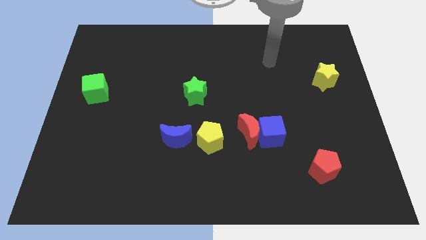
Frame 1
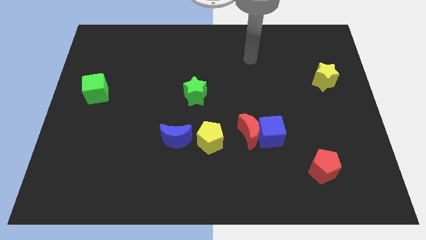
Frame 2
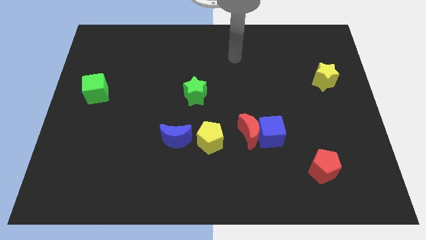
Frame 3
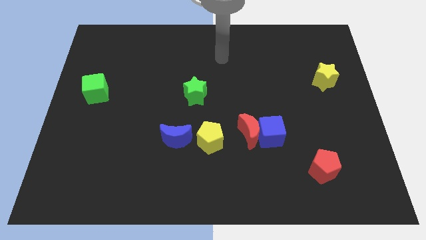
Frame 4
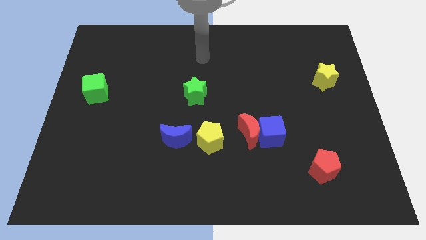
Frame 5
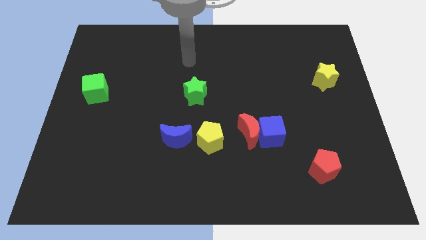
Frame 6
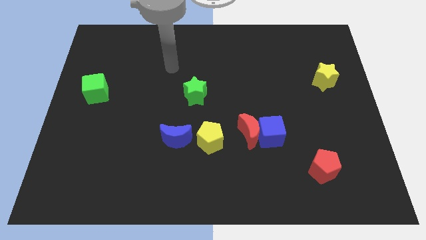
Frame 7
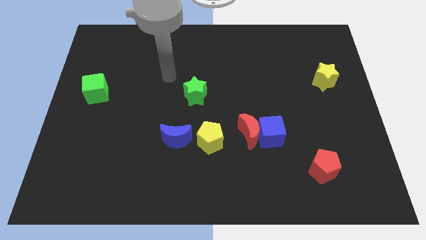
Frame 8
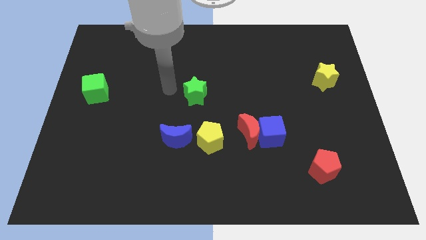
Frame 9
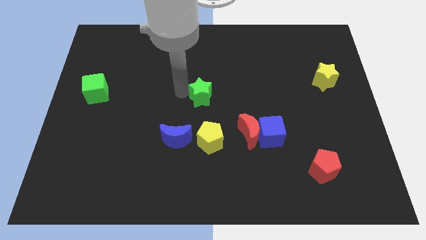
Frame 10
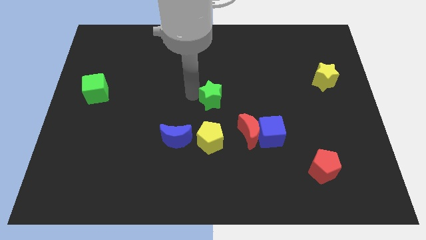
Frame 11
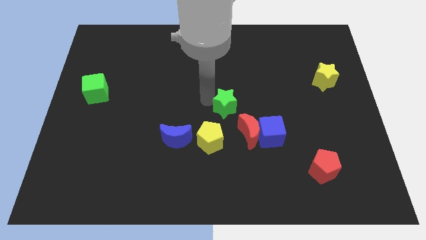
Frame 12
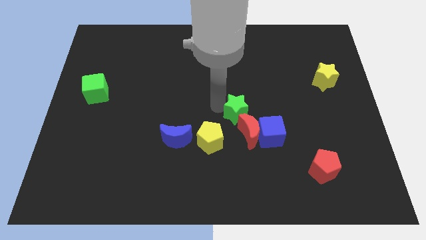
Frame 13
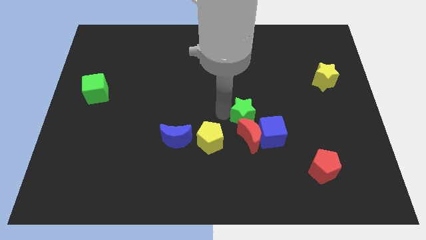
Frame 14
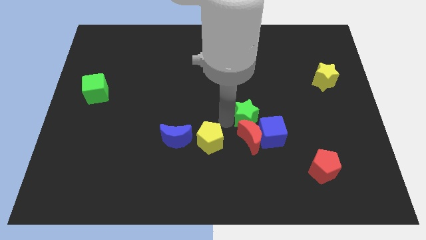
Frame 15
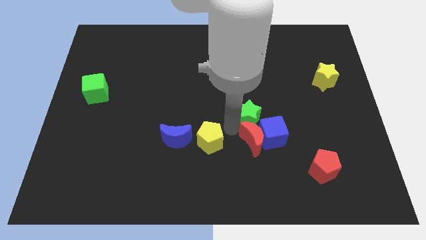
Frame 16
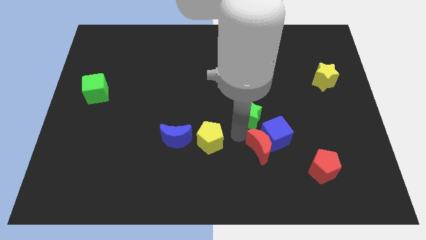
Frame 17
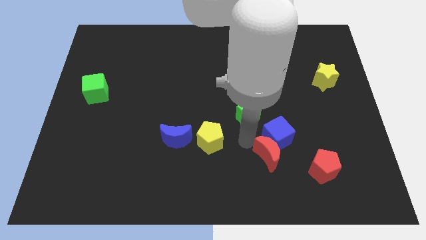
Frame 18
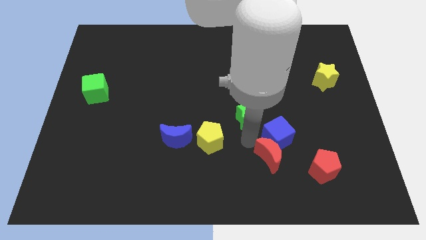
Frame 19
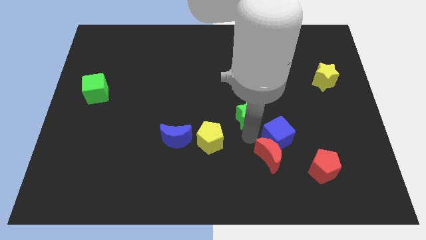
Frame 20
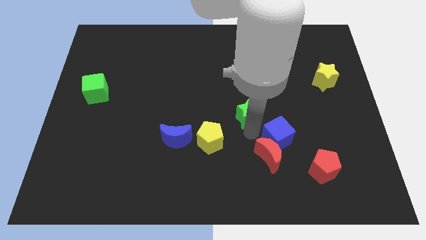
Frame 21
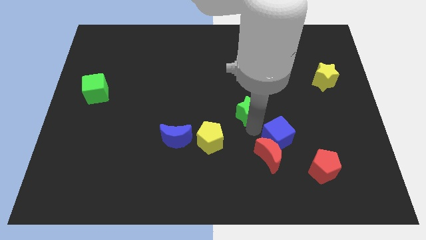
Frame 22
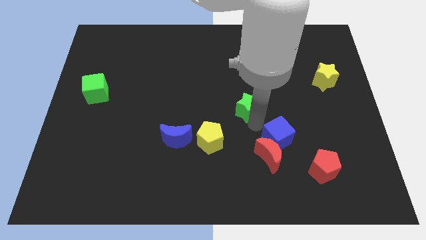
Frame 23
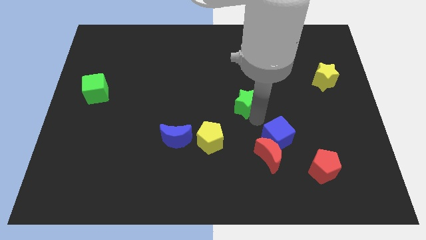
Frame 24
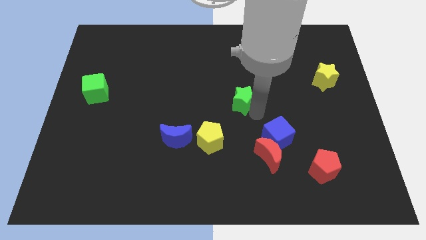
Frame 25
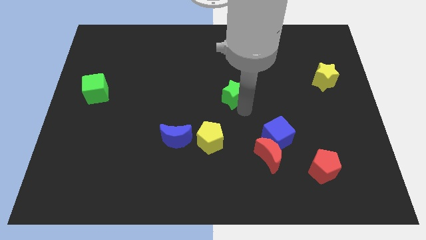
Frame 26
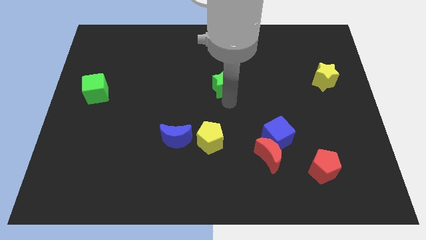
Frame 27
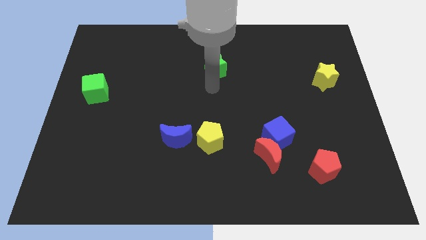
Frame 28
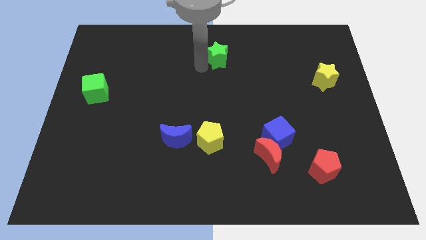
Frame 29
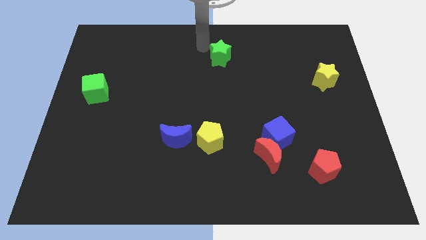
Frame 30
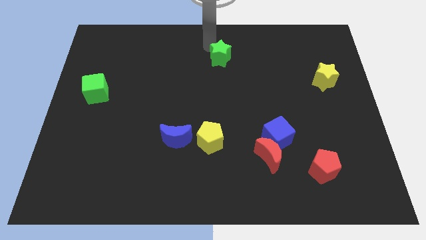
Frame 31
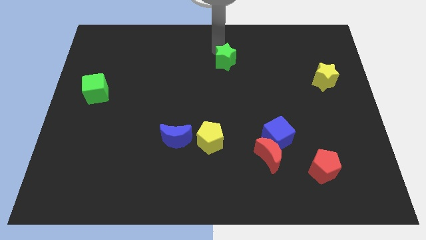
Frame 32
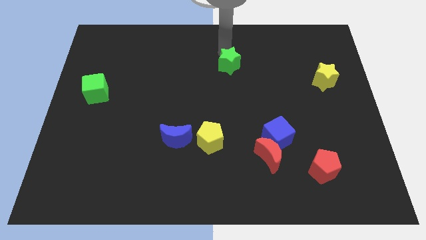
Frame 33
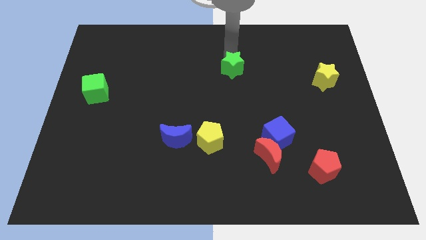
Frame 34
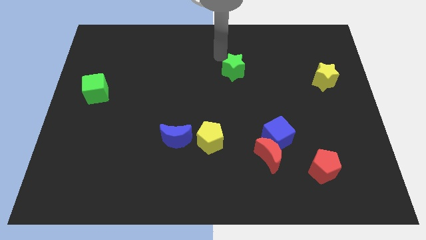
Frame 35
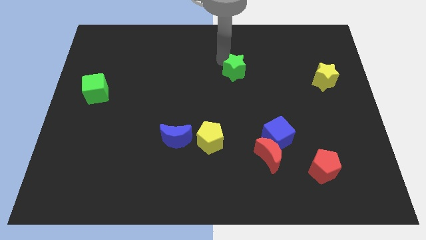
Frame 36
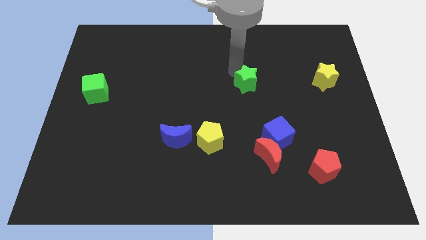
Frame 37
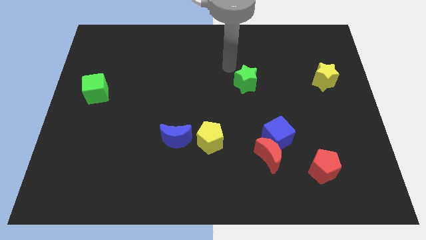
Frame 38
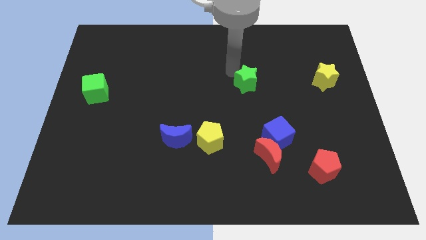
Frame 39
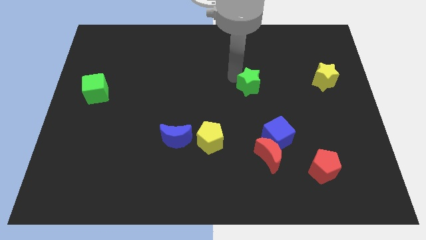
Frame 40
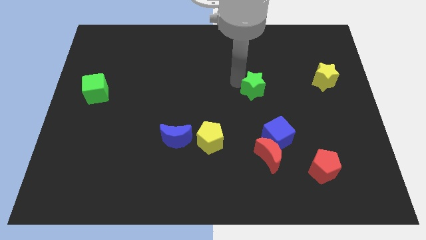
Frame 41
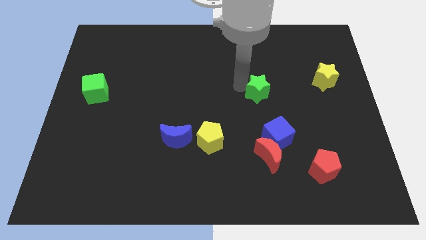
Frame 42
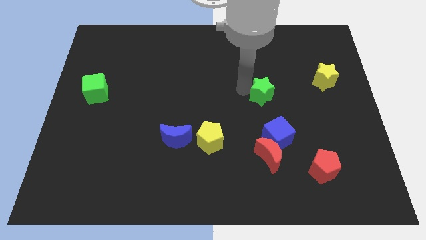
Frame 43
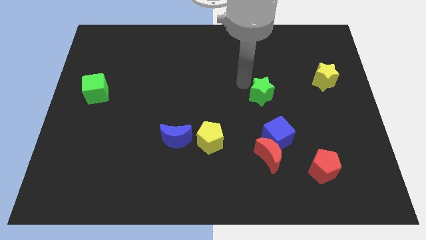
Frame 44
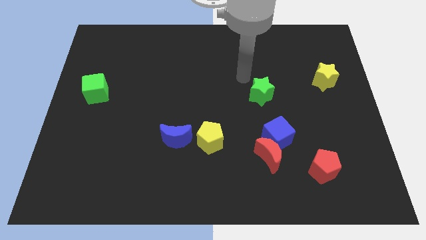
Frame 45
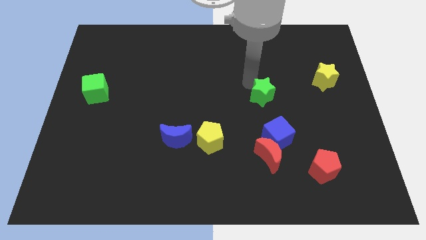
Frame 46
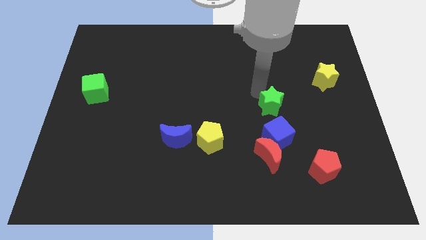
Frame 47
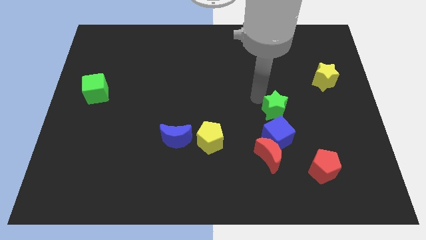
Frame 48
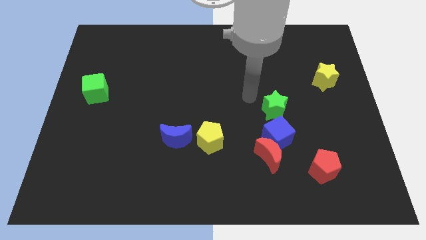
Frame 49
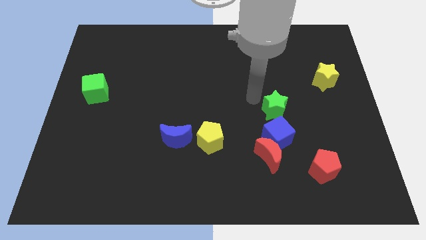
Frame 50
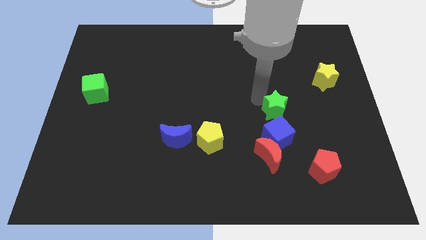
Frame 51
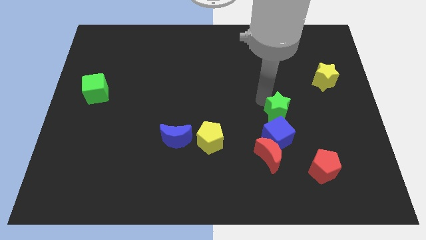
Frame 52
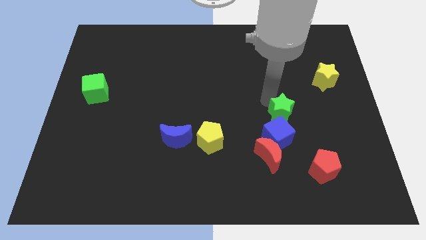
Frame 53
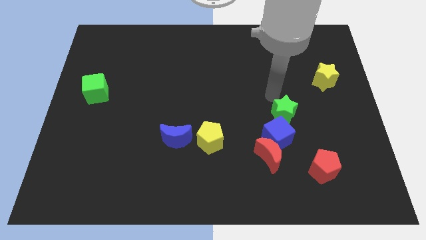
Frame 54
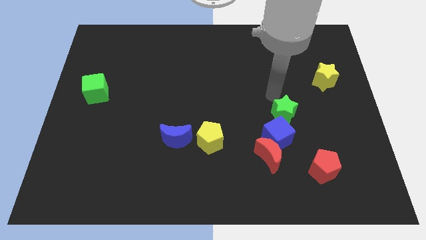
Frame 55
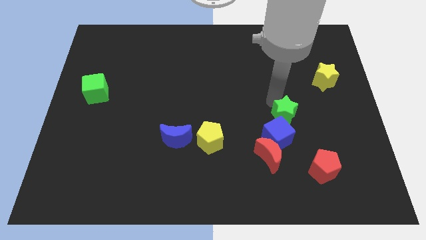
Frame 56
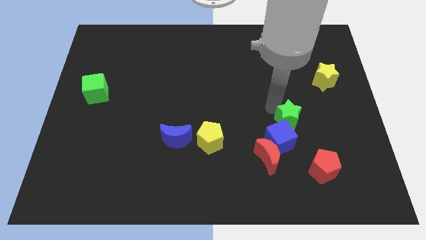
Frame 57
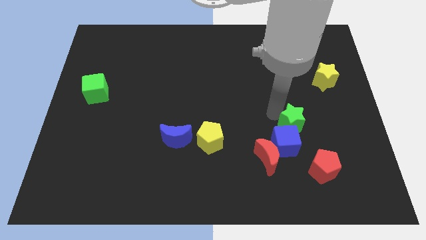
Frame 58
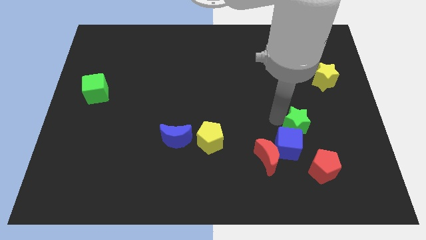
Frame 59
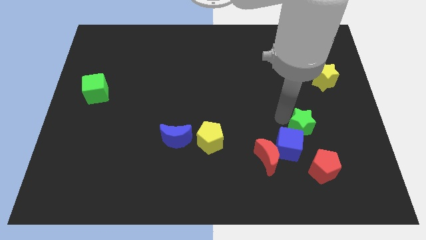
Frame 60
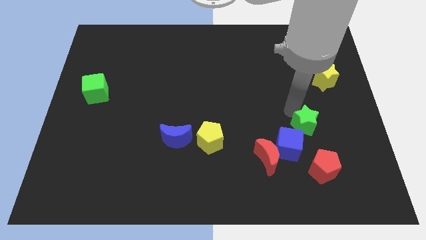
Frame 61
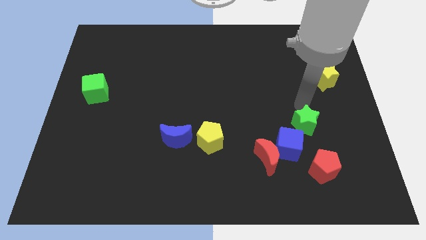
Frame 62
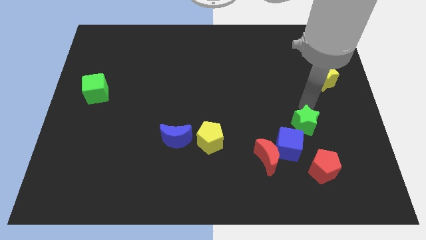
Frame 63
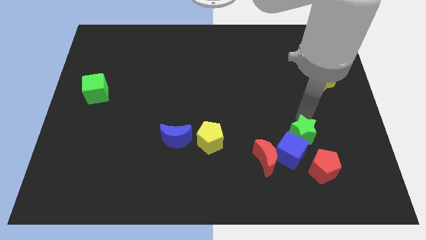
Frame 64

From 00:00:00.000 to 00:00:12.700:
slide the green star diagonally down and right

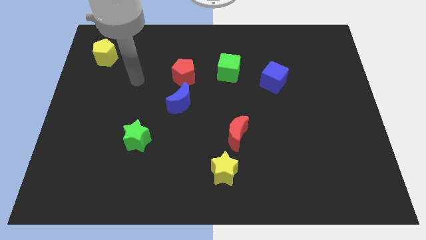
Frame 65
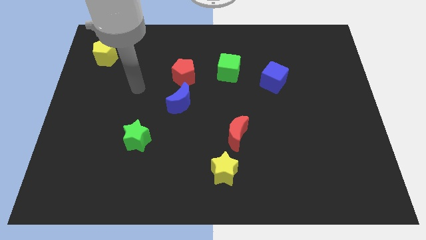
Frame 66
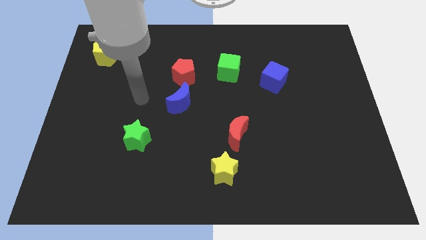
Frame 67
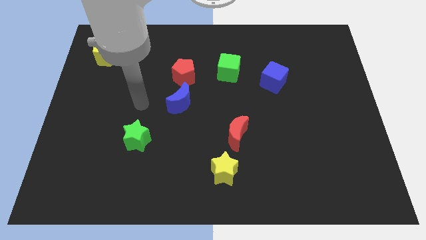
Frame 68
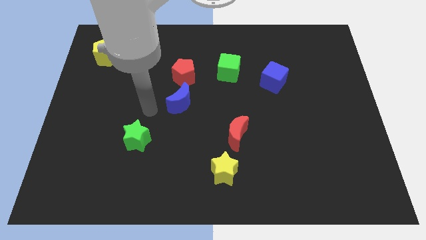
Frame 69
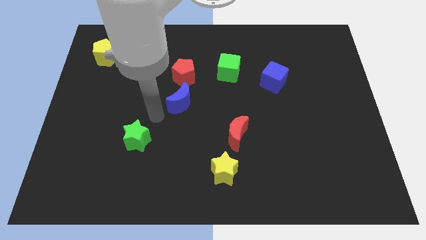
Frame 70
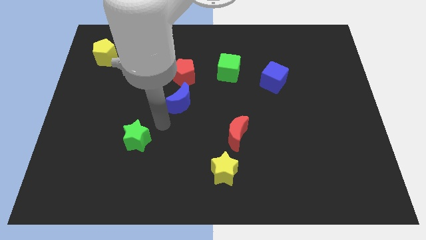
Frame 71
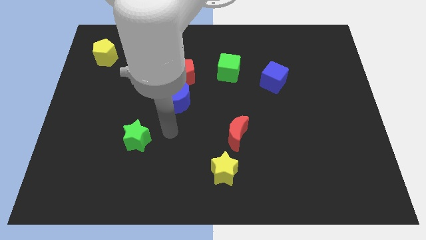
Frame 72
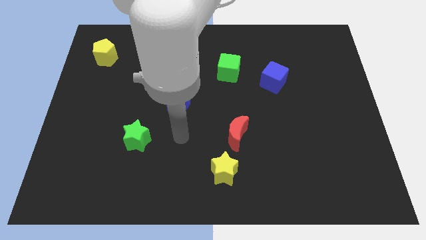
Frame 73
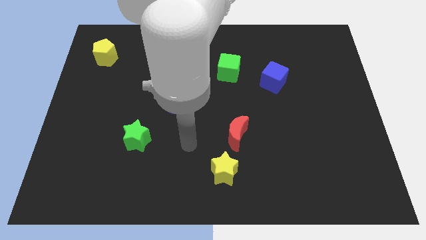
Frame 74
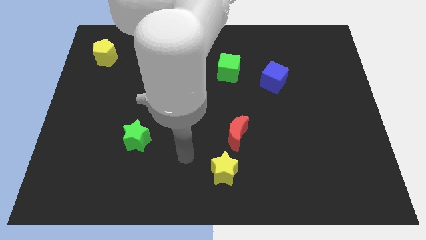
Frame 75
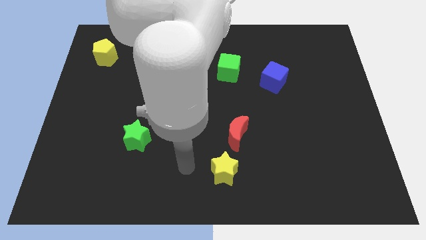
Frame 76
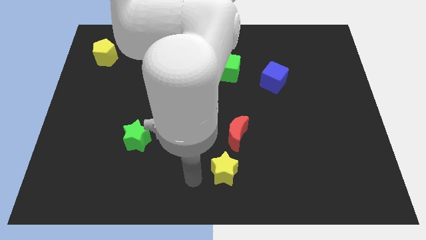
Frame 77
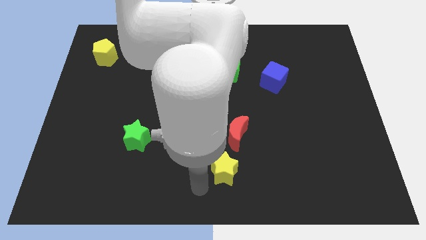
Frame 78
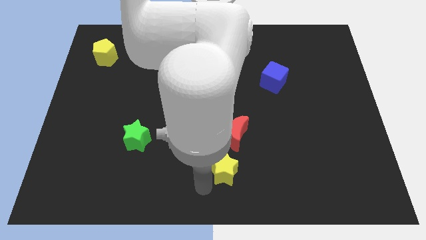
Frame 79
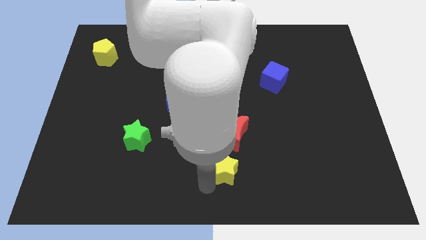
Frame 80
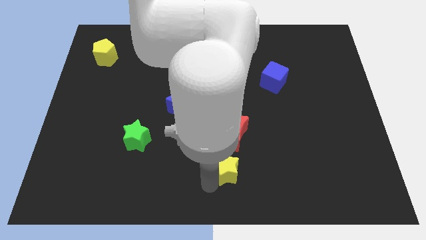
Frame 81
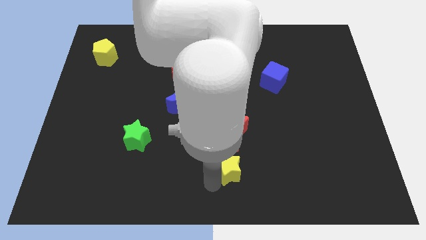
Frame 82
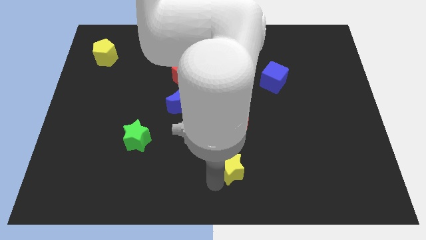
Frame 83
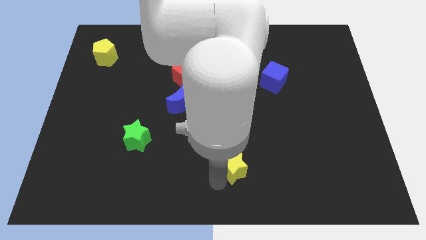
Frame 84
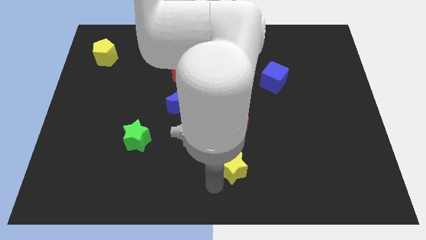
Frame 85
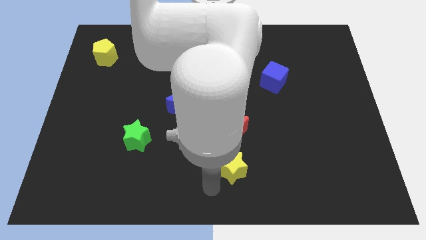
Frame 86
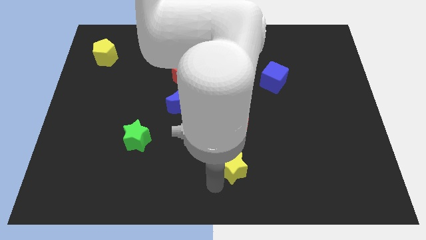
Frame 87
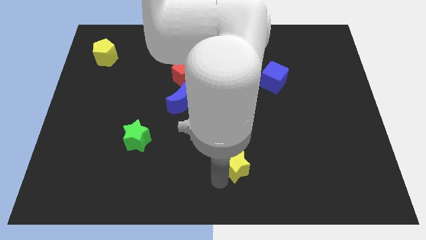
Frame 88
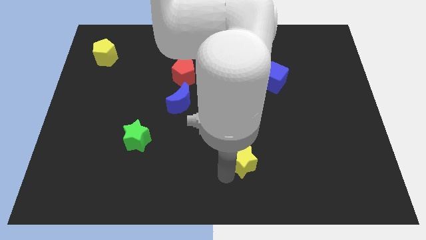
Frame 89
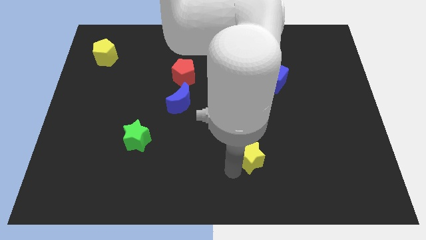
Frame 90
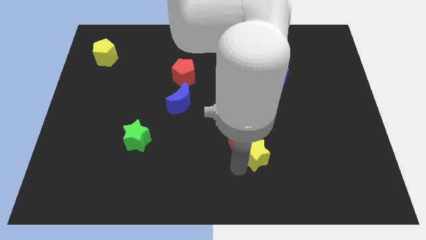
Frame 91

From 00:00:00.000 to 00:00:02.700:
push the yellow star a bit upwards and to the right diagonally
